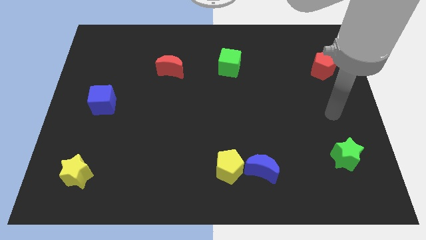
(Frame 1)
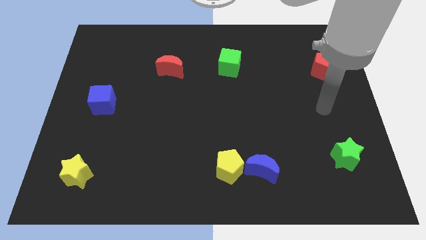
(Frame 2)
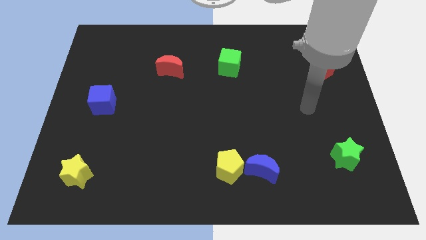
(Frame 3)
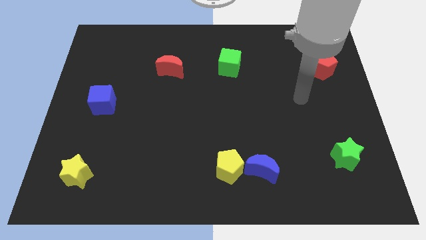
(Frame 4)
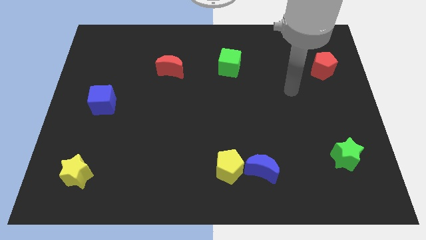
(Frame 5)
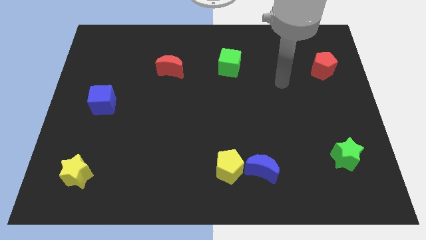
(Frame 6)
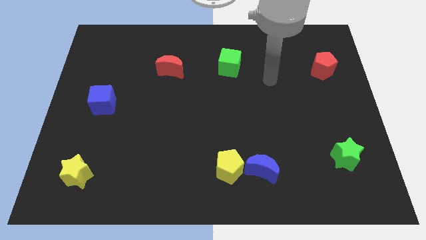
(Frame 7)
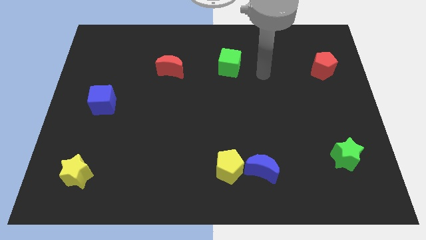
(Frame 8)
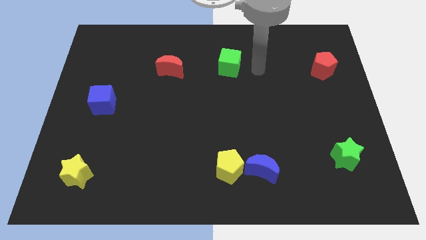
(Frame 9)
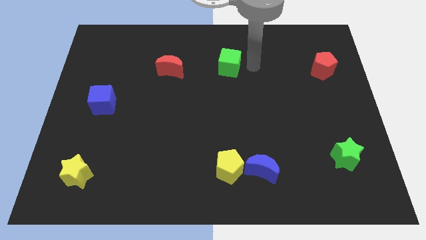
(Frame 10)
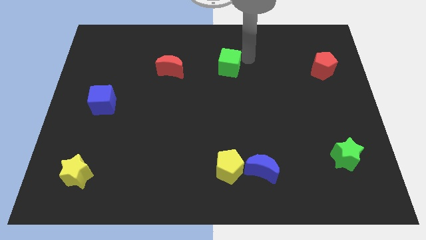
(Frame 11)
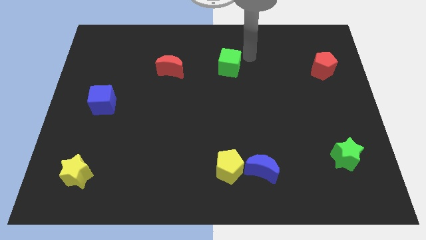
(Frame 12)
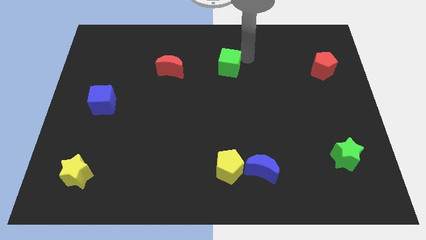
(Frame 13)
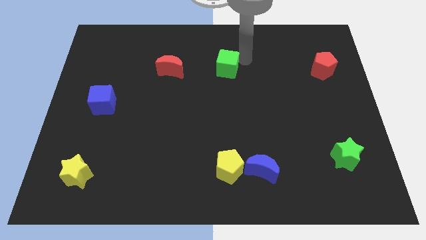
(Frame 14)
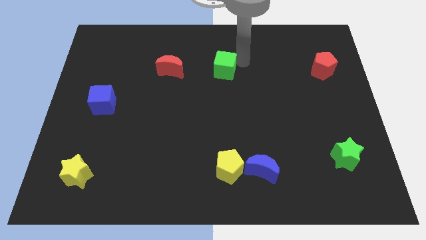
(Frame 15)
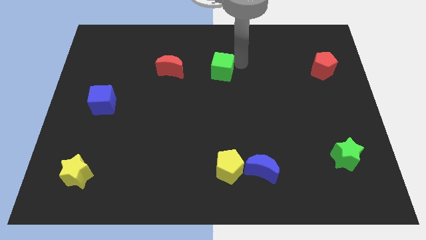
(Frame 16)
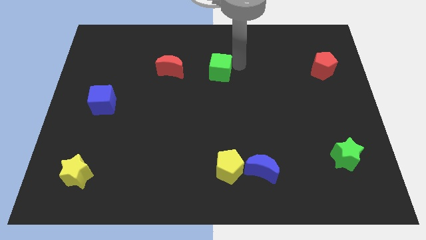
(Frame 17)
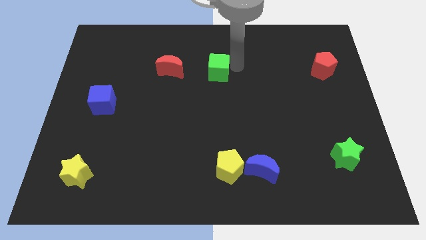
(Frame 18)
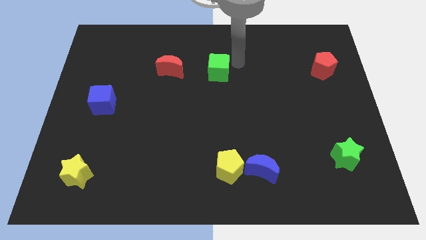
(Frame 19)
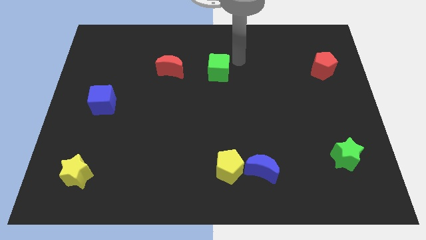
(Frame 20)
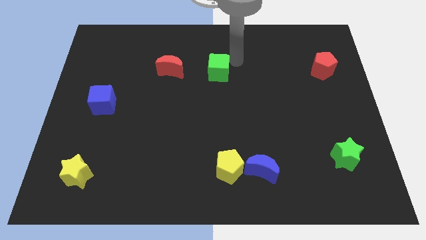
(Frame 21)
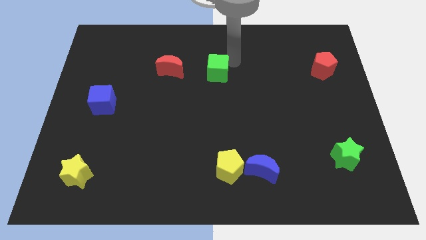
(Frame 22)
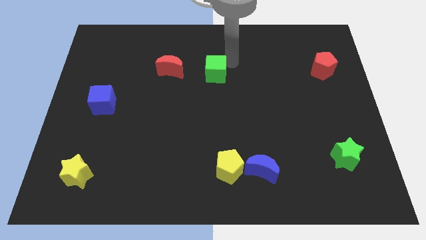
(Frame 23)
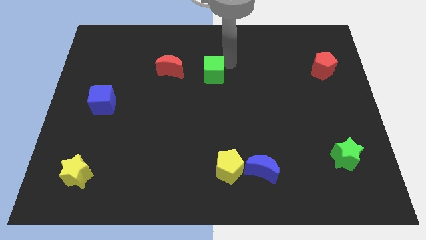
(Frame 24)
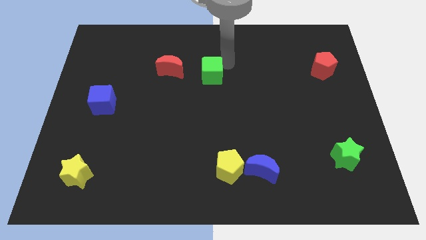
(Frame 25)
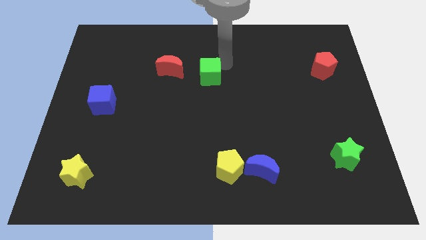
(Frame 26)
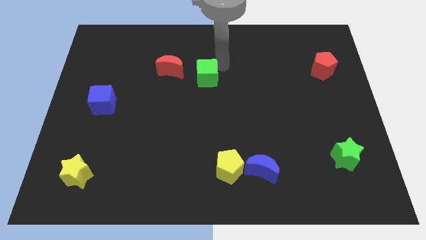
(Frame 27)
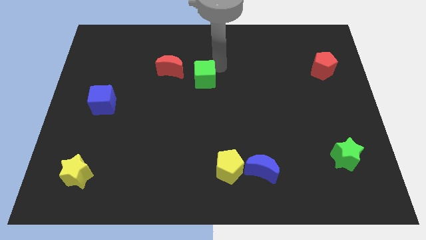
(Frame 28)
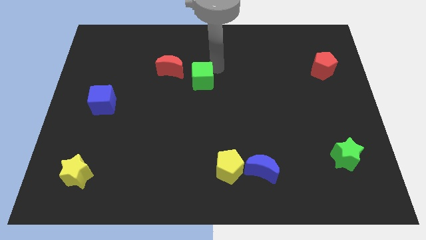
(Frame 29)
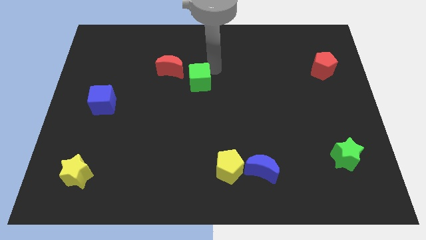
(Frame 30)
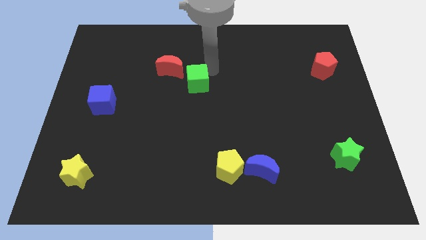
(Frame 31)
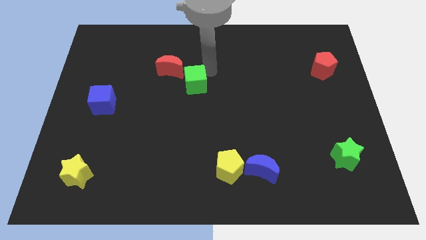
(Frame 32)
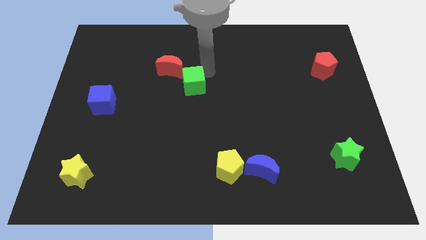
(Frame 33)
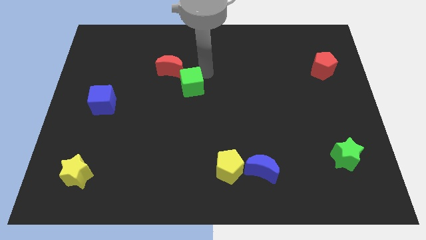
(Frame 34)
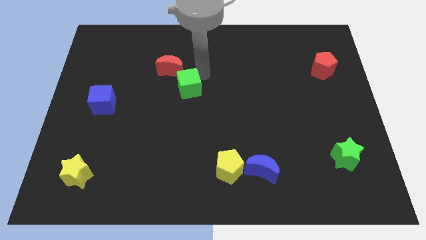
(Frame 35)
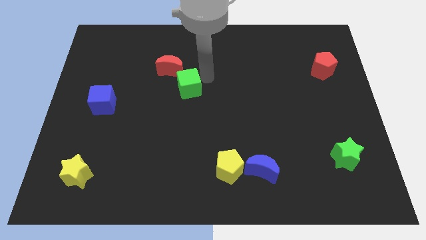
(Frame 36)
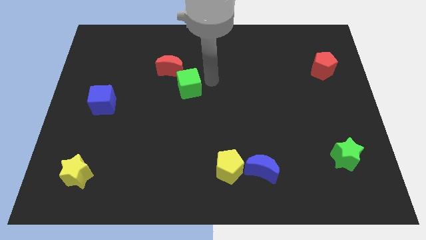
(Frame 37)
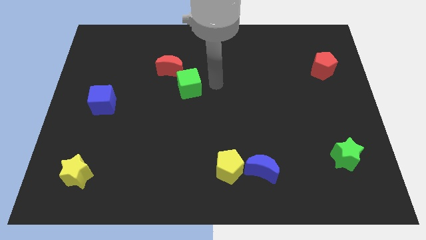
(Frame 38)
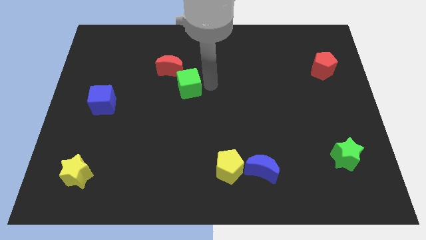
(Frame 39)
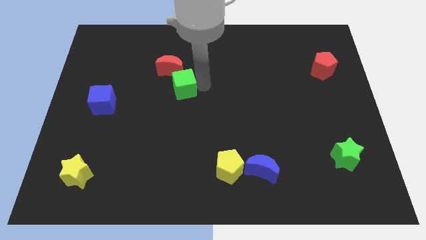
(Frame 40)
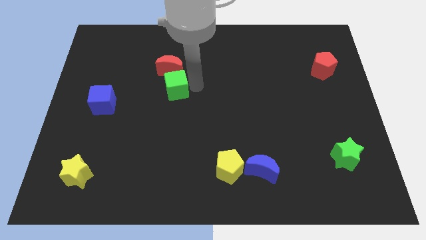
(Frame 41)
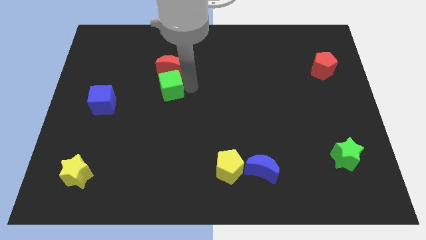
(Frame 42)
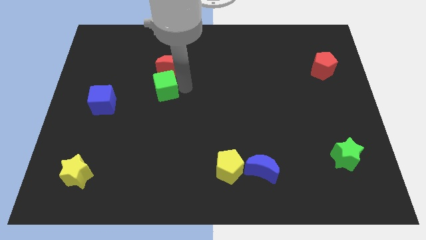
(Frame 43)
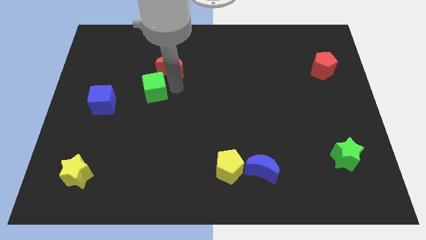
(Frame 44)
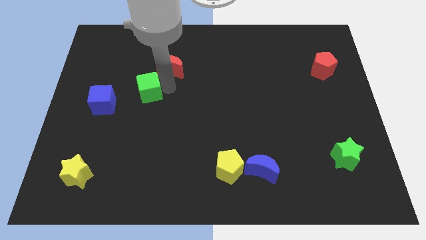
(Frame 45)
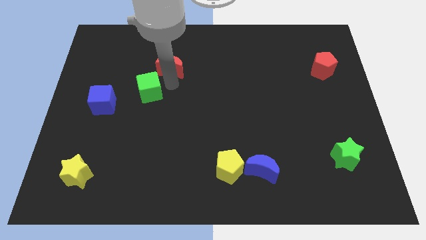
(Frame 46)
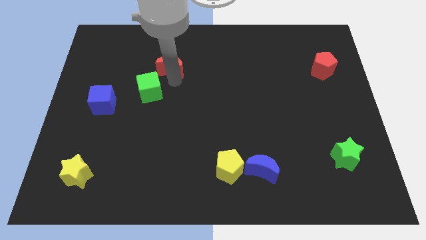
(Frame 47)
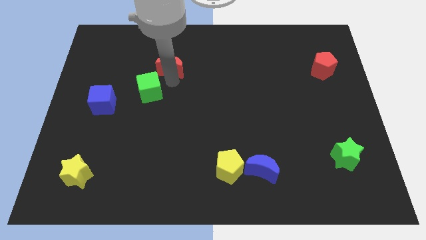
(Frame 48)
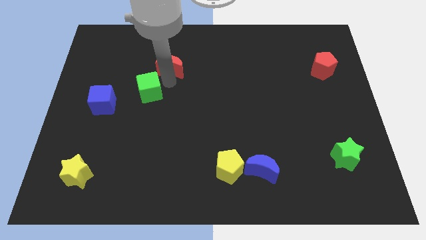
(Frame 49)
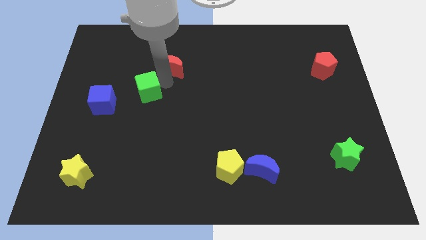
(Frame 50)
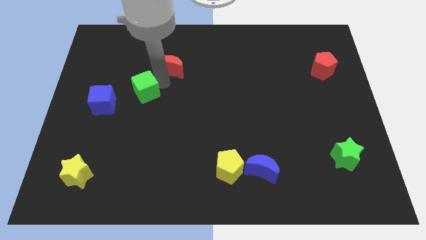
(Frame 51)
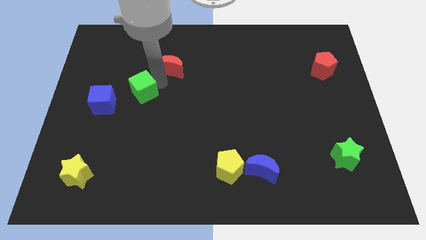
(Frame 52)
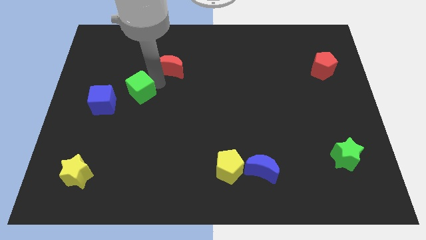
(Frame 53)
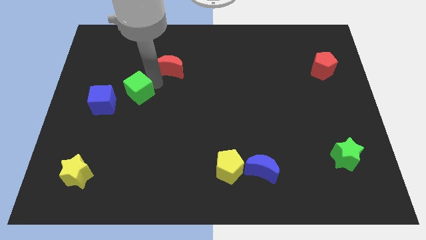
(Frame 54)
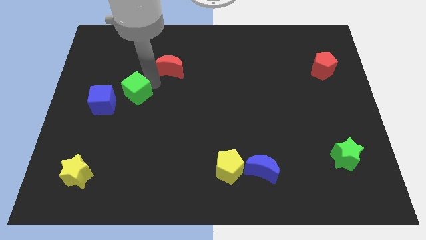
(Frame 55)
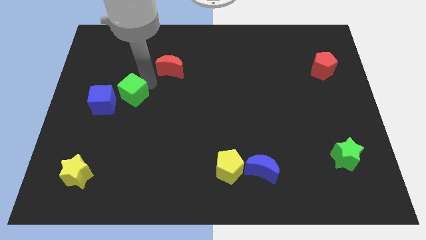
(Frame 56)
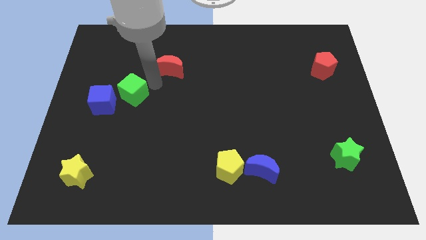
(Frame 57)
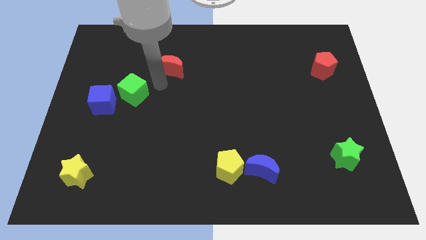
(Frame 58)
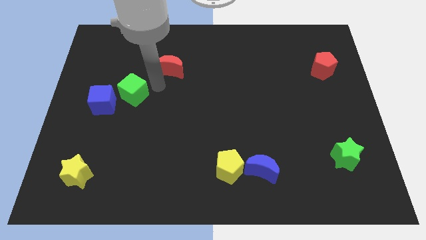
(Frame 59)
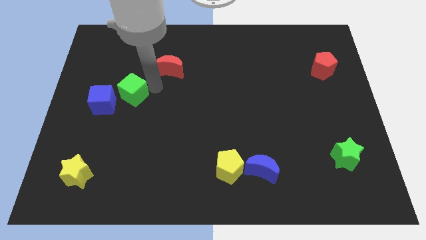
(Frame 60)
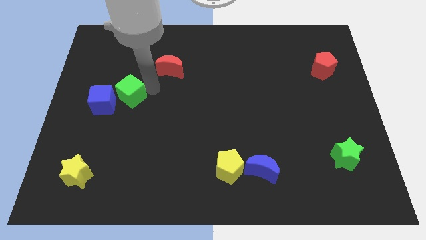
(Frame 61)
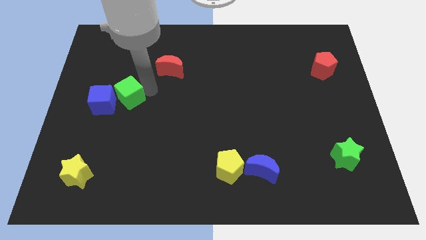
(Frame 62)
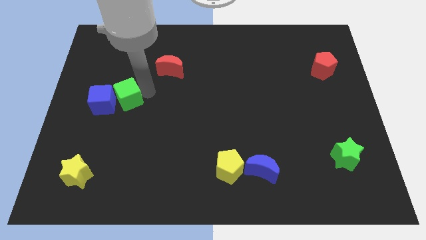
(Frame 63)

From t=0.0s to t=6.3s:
slide the green cube towards the blue cube

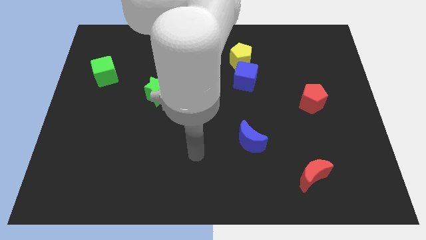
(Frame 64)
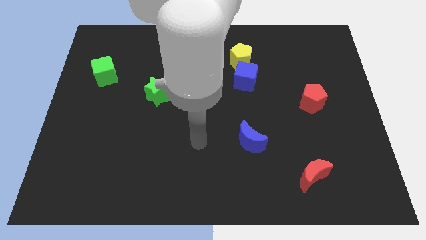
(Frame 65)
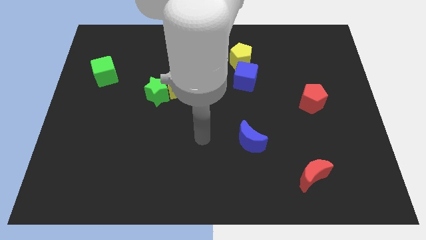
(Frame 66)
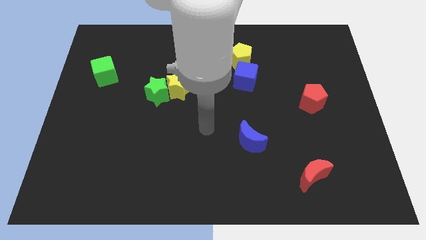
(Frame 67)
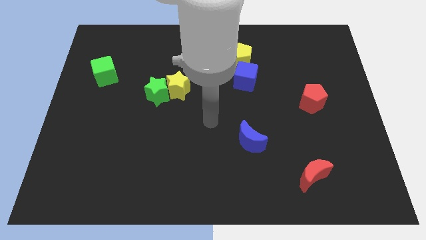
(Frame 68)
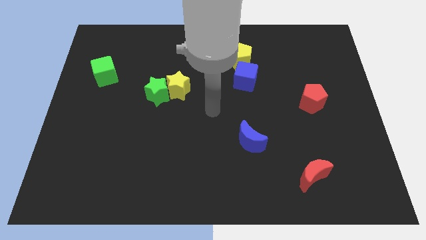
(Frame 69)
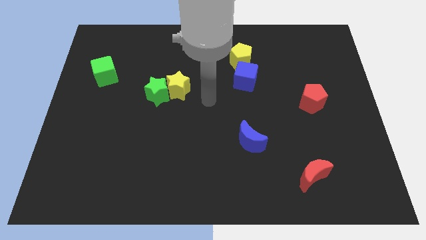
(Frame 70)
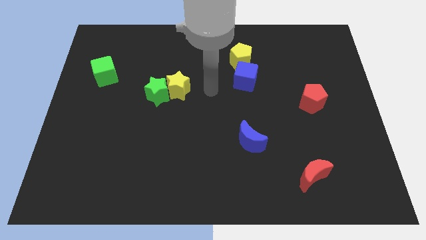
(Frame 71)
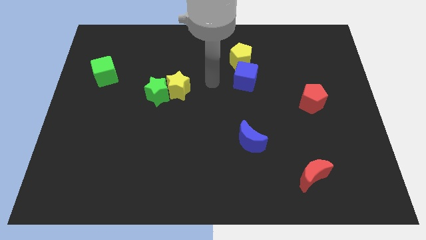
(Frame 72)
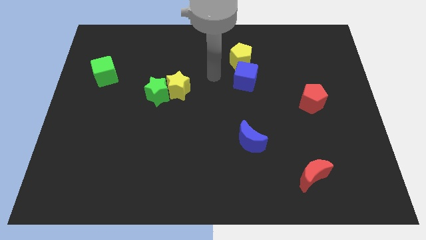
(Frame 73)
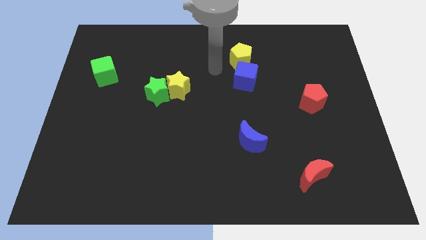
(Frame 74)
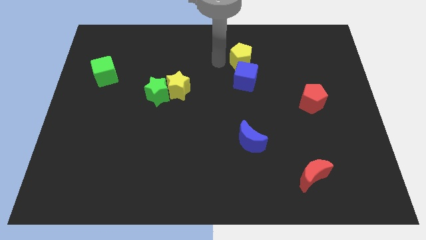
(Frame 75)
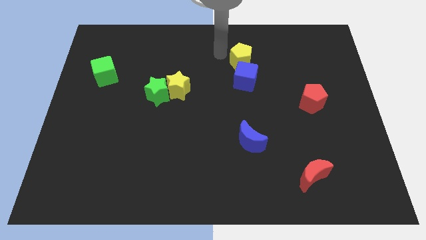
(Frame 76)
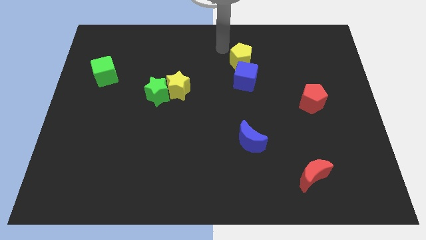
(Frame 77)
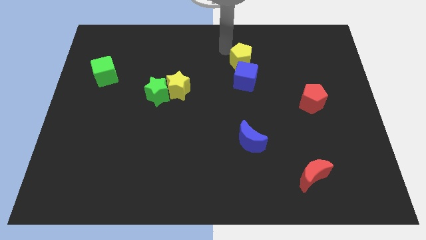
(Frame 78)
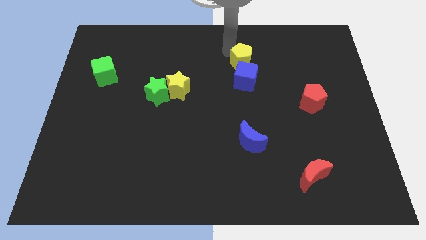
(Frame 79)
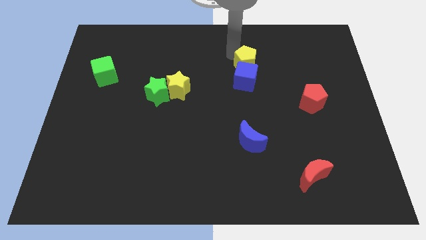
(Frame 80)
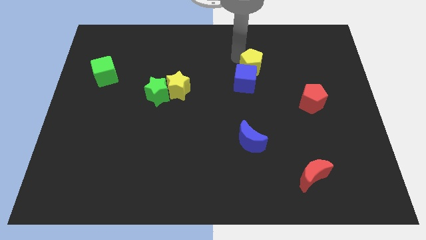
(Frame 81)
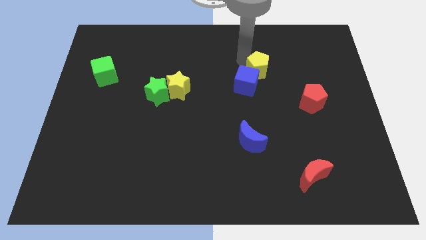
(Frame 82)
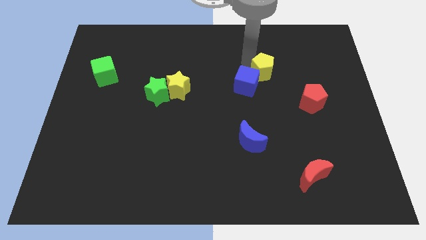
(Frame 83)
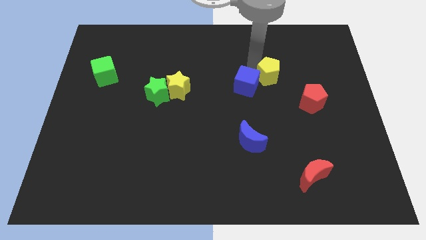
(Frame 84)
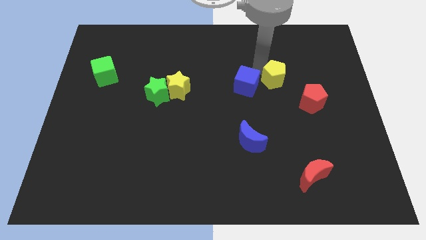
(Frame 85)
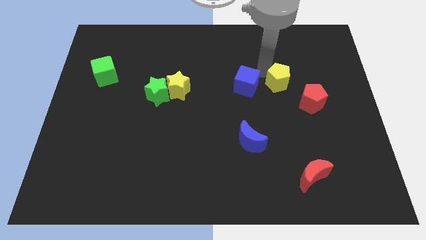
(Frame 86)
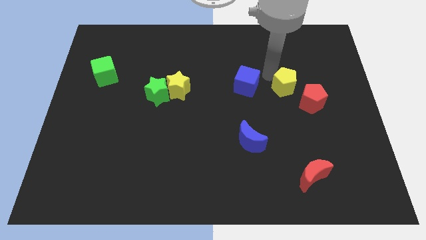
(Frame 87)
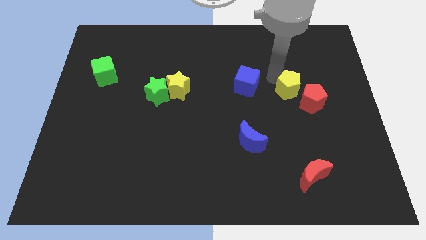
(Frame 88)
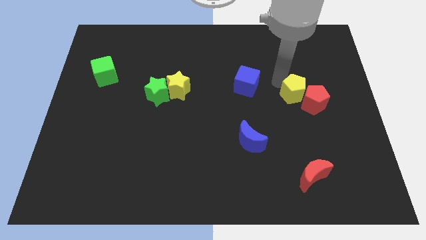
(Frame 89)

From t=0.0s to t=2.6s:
slide the yellow pentagon next to the red pentagon
